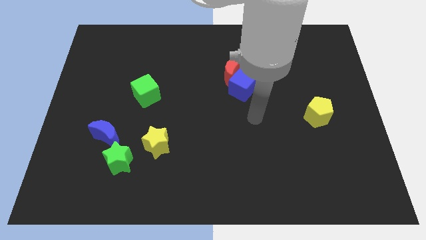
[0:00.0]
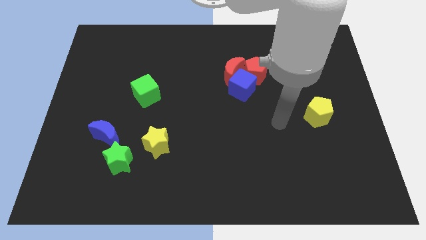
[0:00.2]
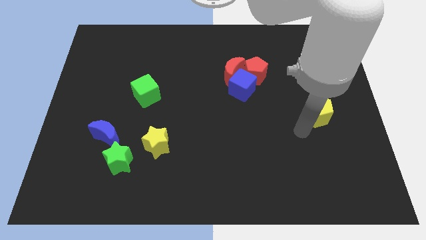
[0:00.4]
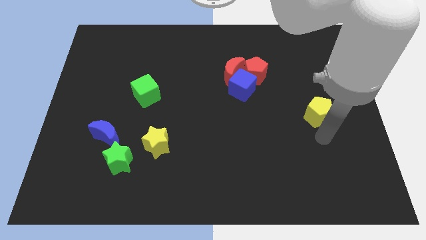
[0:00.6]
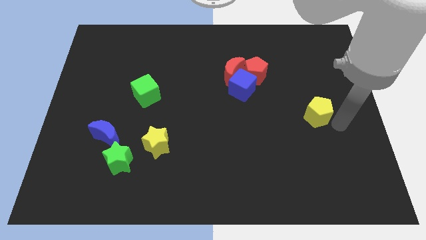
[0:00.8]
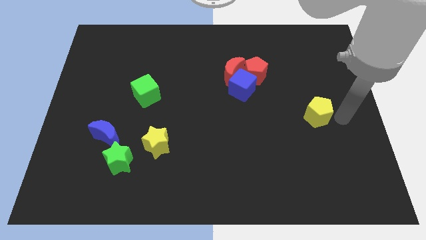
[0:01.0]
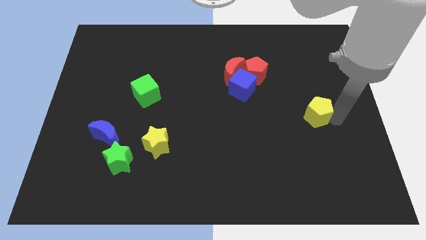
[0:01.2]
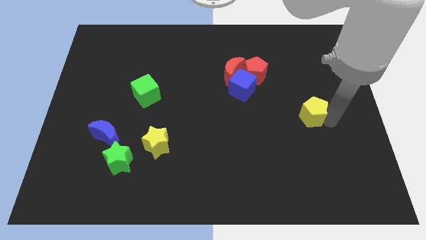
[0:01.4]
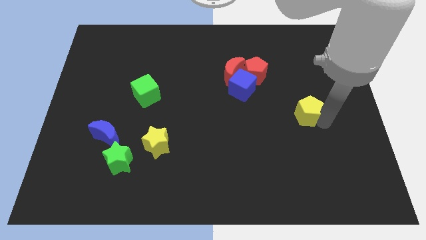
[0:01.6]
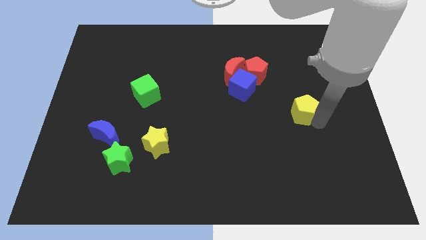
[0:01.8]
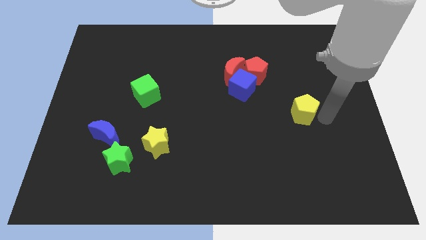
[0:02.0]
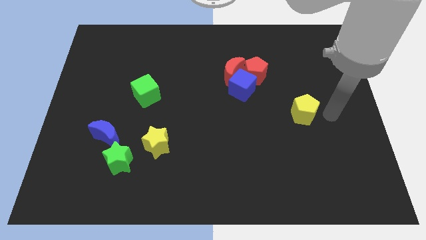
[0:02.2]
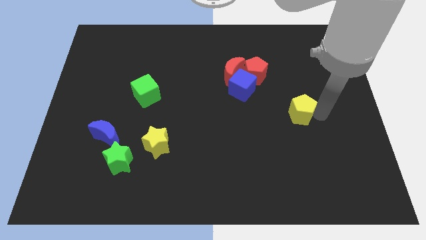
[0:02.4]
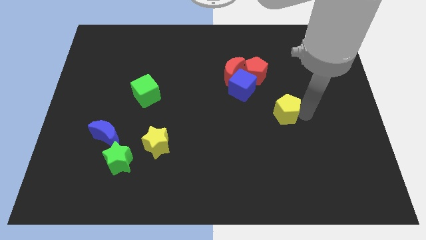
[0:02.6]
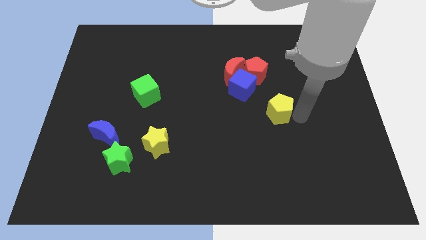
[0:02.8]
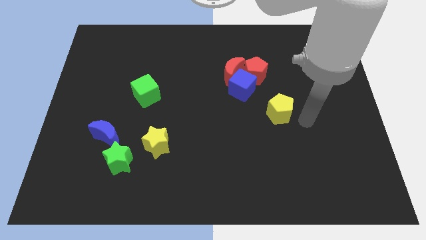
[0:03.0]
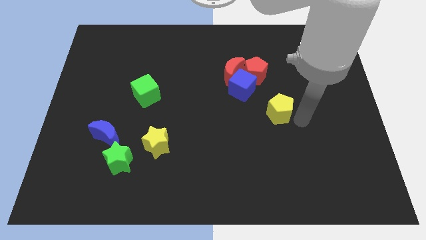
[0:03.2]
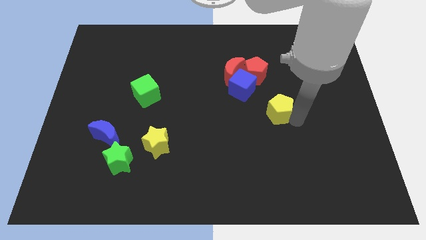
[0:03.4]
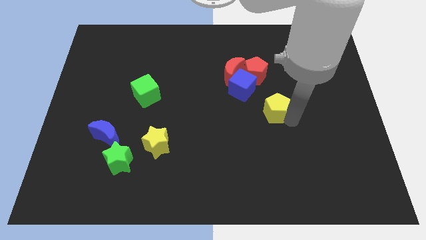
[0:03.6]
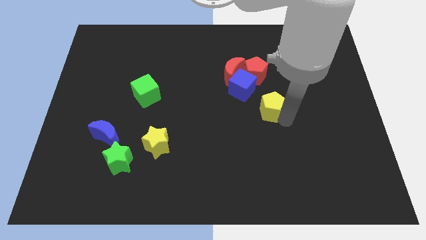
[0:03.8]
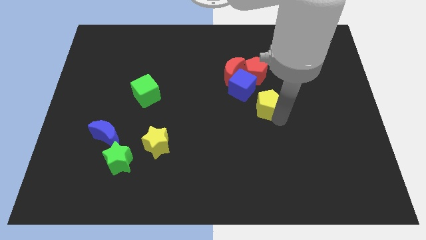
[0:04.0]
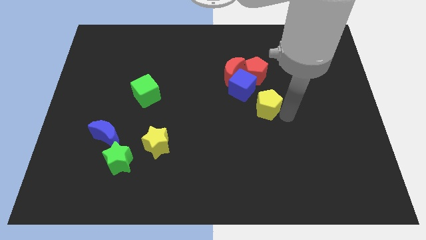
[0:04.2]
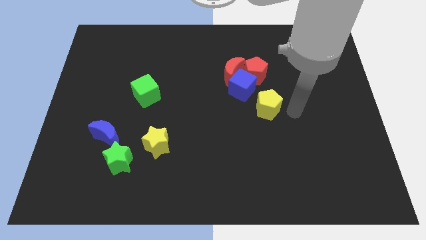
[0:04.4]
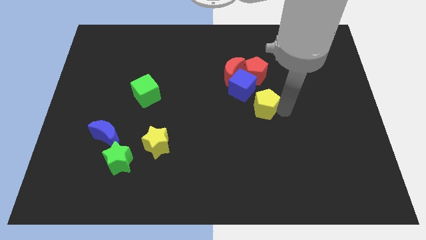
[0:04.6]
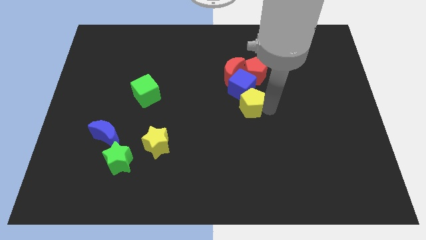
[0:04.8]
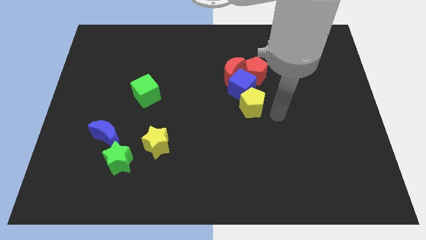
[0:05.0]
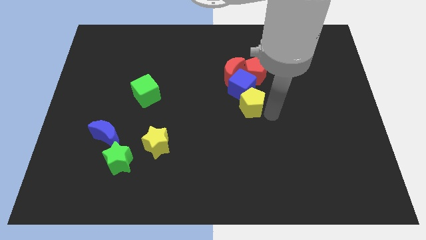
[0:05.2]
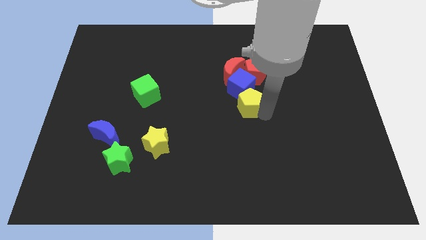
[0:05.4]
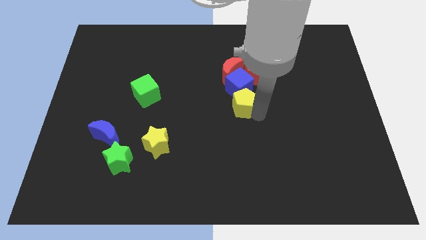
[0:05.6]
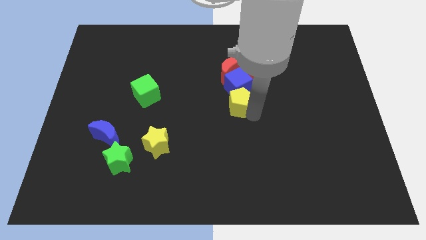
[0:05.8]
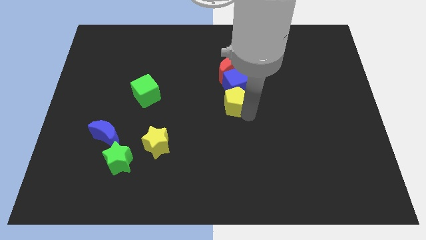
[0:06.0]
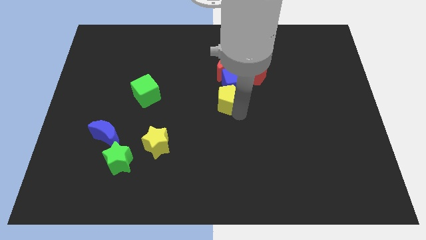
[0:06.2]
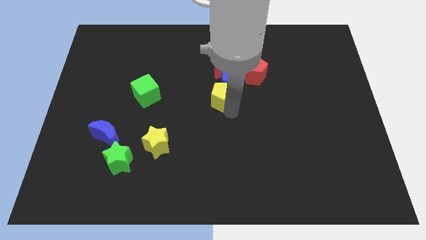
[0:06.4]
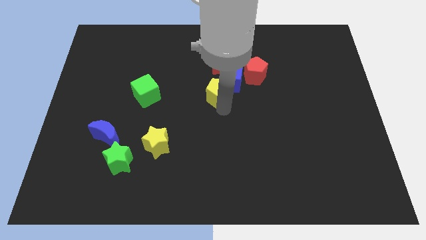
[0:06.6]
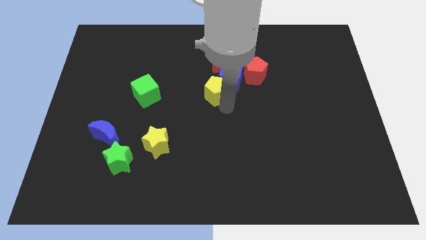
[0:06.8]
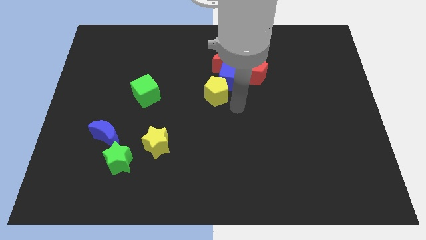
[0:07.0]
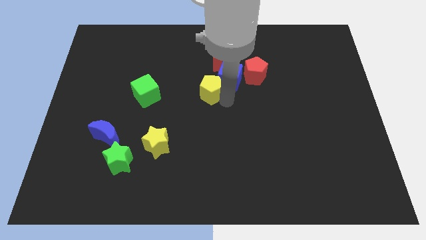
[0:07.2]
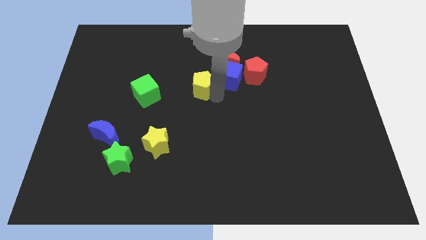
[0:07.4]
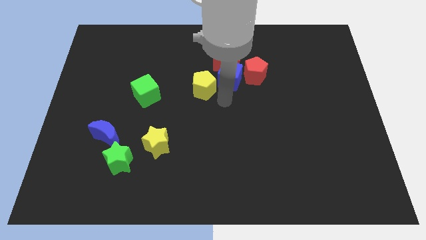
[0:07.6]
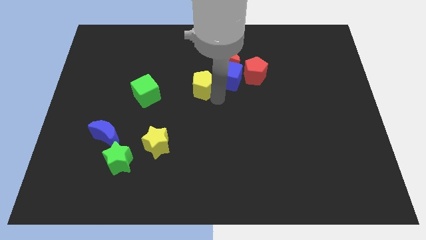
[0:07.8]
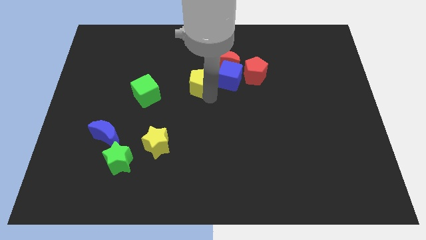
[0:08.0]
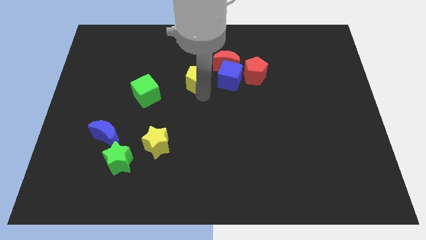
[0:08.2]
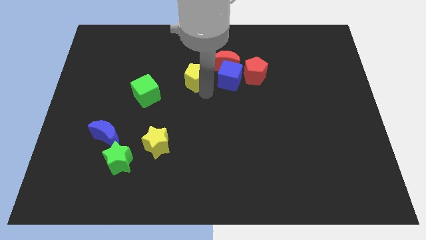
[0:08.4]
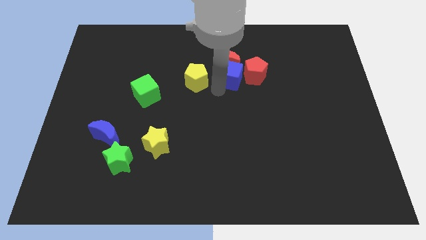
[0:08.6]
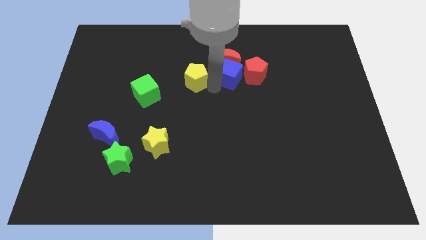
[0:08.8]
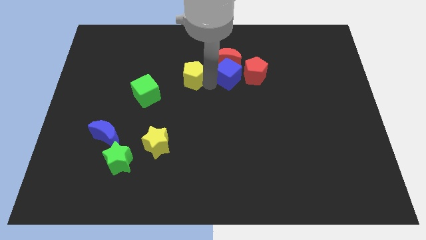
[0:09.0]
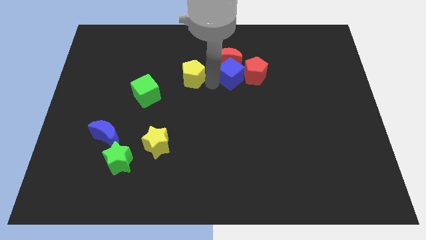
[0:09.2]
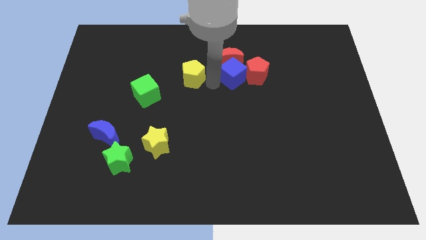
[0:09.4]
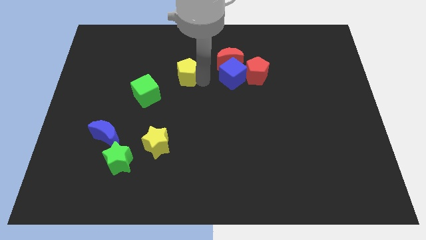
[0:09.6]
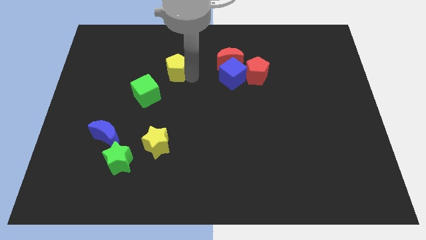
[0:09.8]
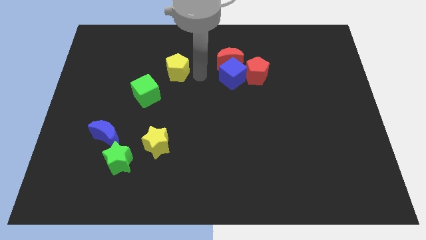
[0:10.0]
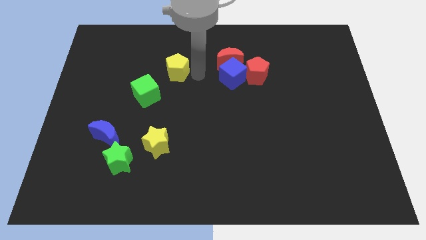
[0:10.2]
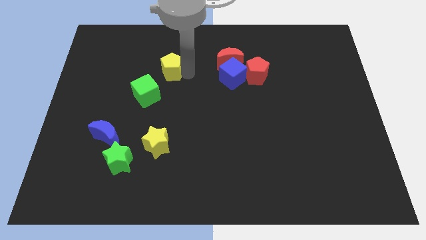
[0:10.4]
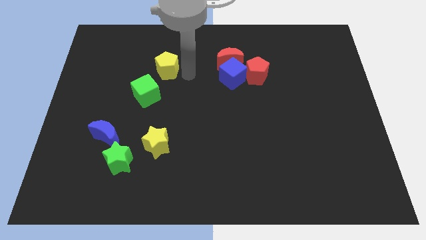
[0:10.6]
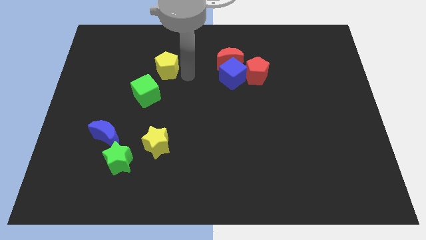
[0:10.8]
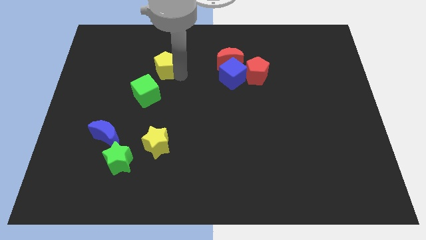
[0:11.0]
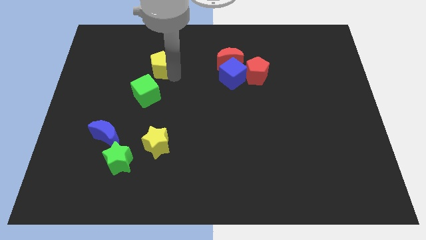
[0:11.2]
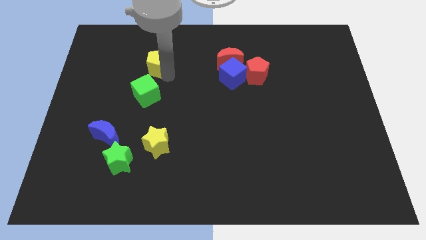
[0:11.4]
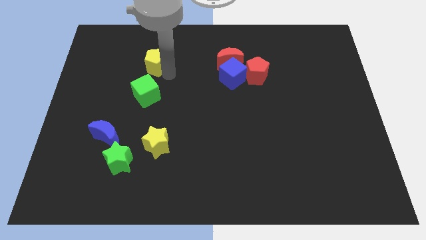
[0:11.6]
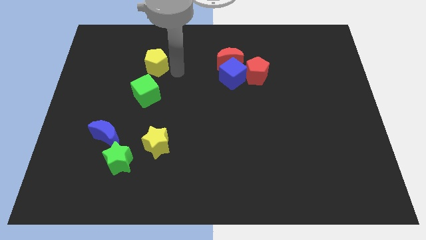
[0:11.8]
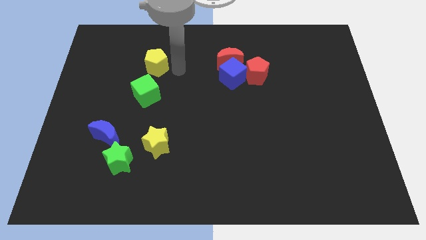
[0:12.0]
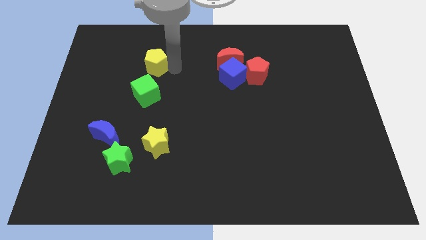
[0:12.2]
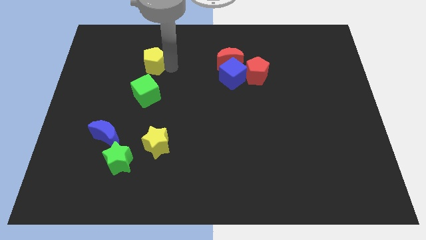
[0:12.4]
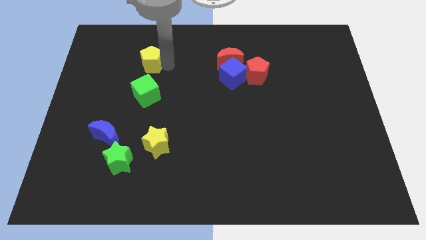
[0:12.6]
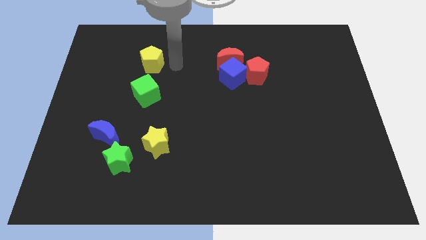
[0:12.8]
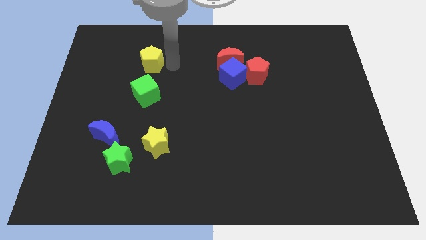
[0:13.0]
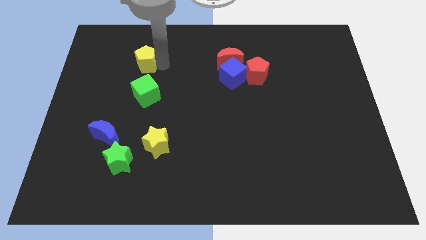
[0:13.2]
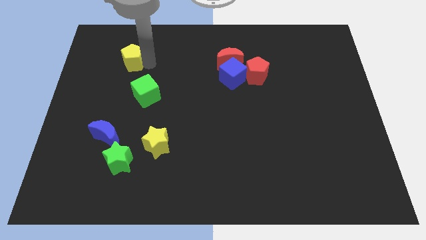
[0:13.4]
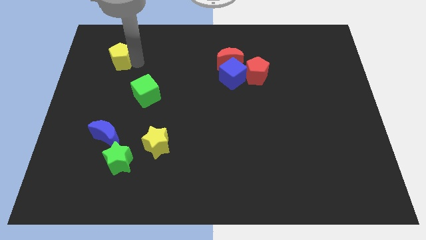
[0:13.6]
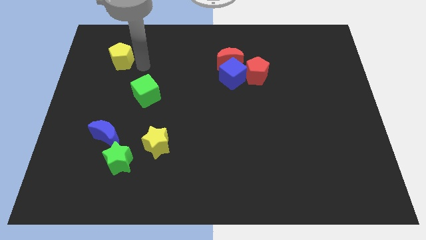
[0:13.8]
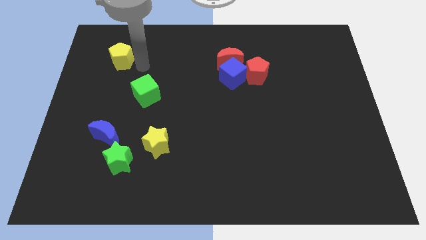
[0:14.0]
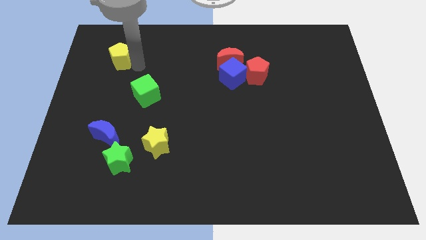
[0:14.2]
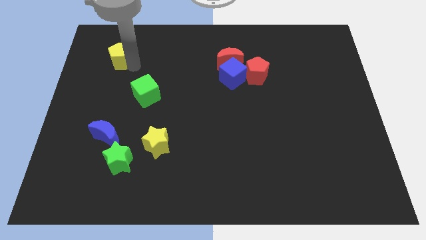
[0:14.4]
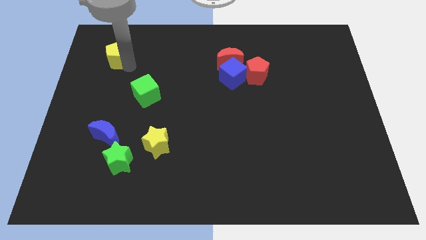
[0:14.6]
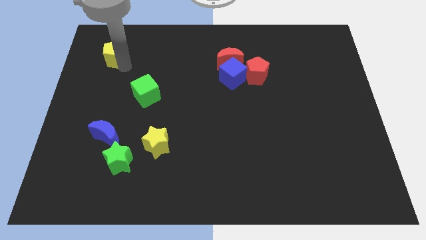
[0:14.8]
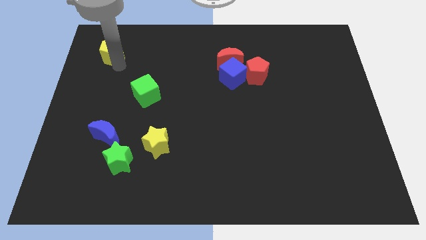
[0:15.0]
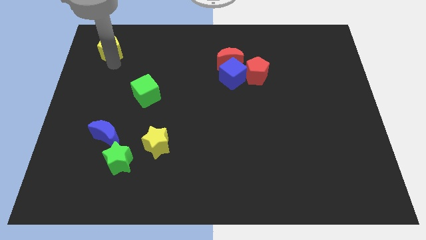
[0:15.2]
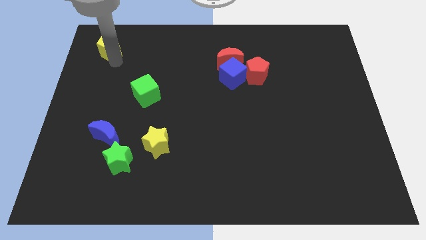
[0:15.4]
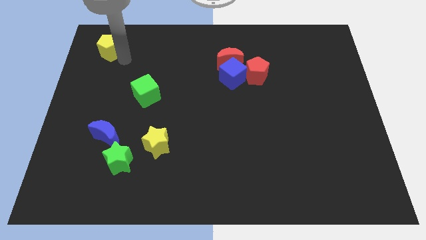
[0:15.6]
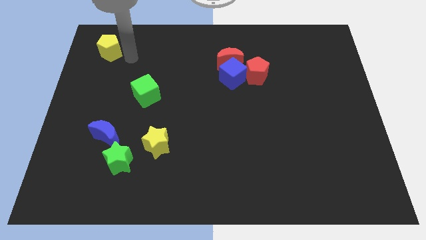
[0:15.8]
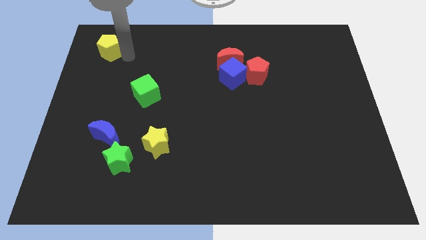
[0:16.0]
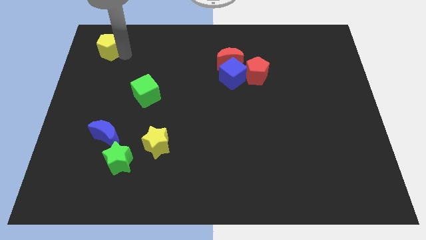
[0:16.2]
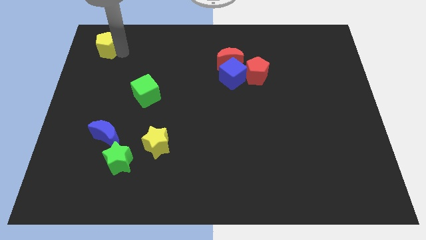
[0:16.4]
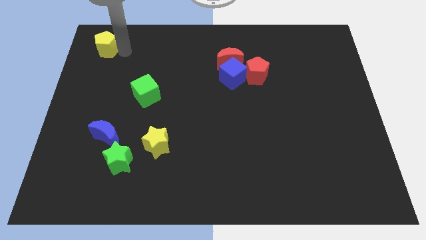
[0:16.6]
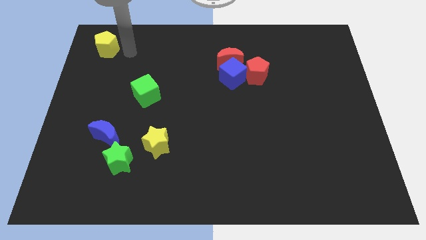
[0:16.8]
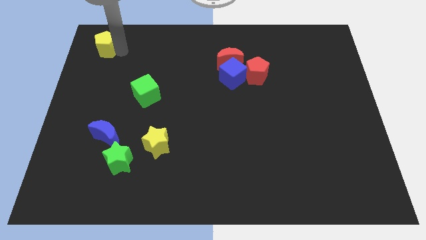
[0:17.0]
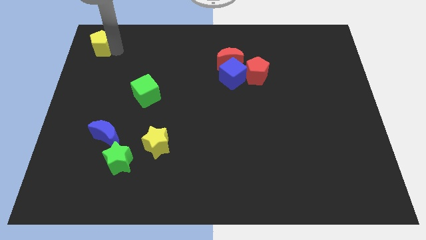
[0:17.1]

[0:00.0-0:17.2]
push the yellow pentagon to the upper left corner
